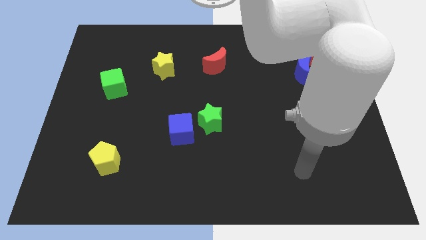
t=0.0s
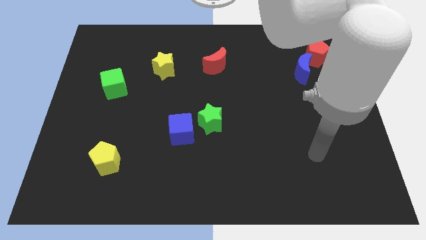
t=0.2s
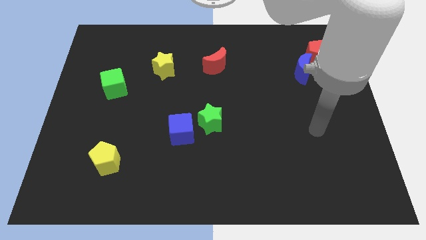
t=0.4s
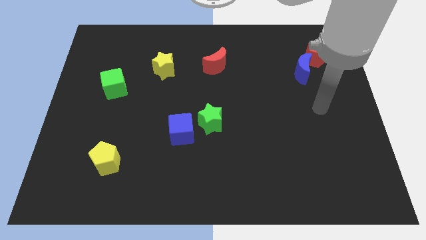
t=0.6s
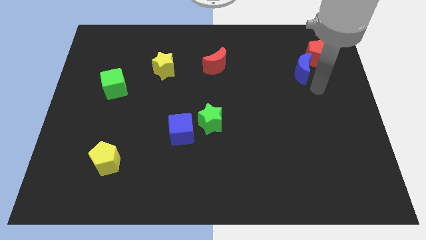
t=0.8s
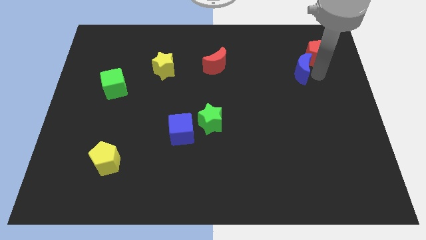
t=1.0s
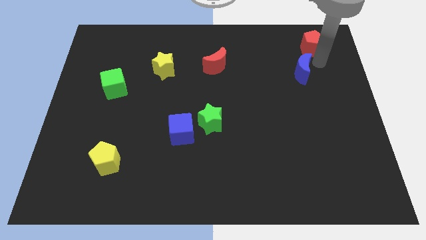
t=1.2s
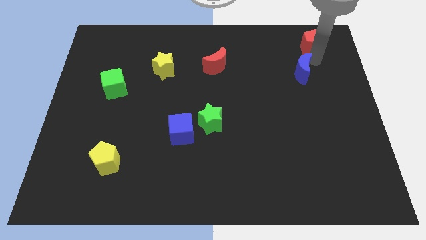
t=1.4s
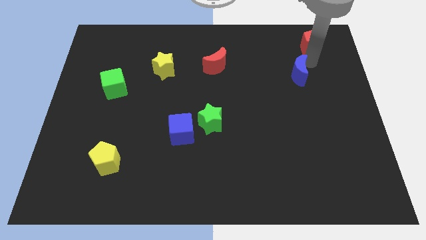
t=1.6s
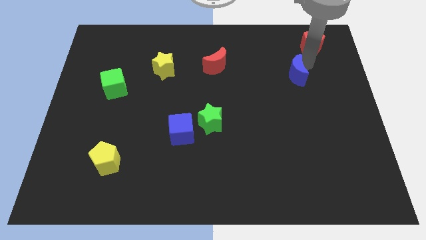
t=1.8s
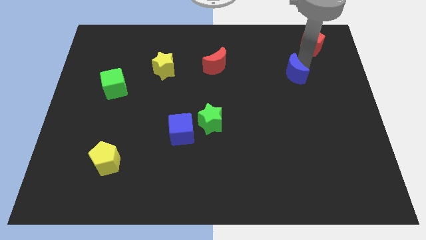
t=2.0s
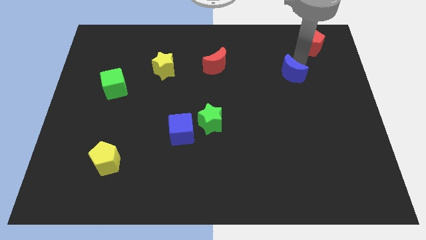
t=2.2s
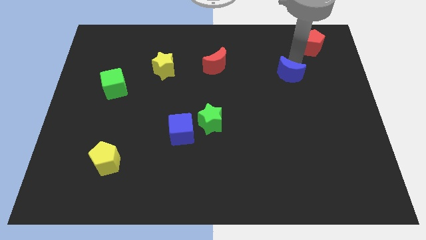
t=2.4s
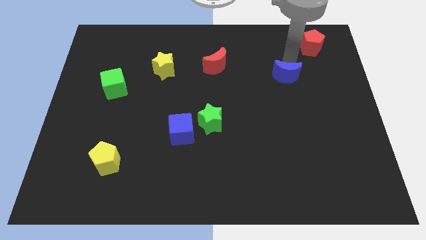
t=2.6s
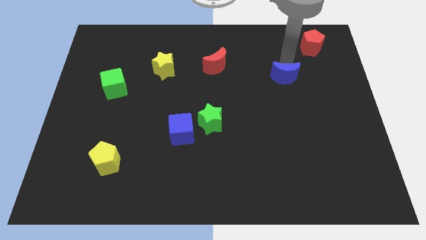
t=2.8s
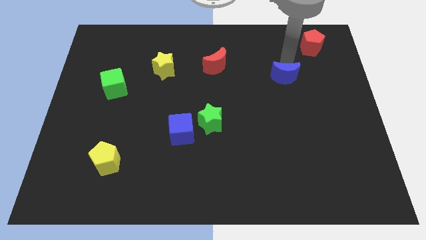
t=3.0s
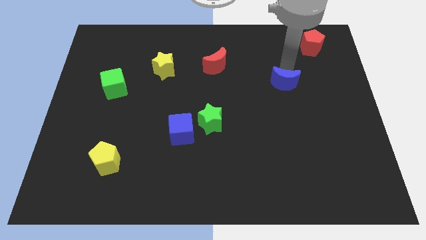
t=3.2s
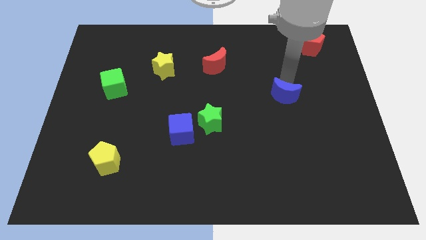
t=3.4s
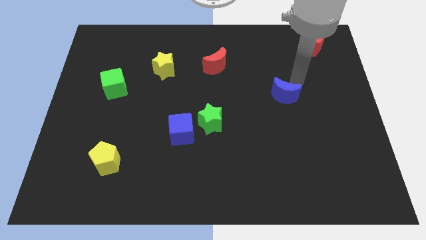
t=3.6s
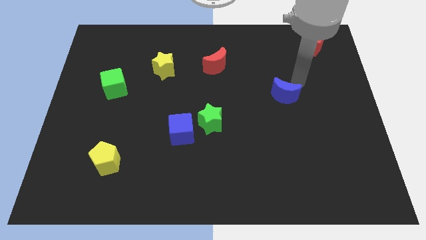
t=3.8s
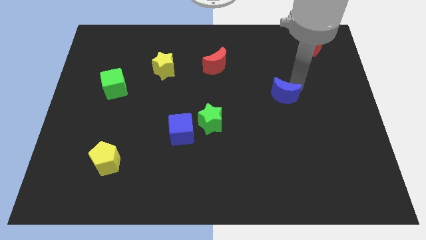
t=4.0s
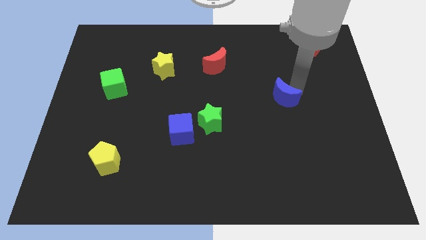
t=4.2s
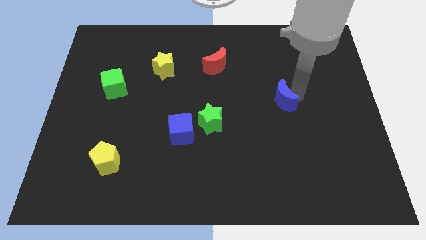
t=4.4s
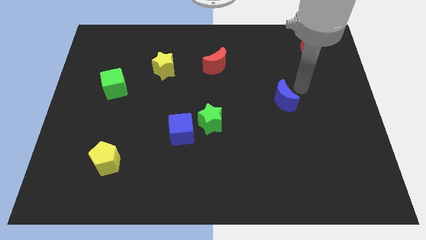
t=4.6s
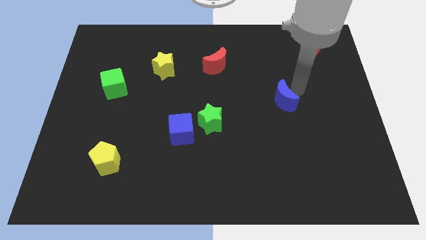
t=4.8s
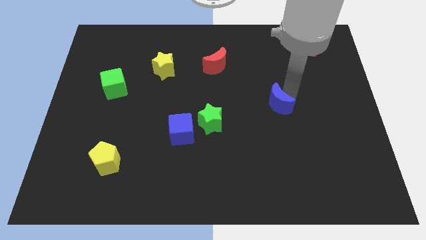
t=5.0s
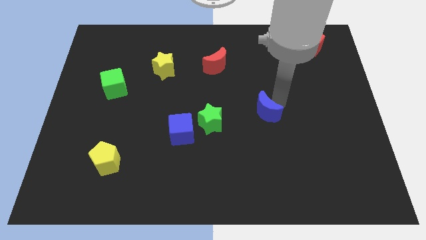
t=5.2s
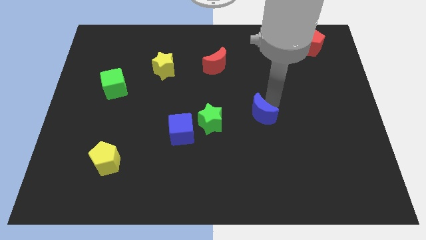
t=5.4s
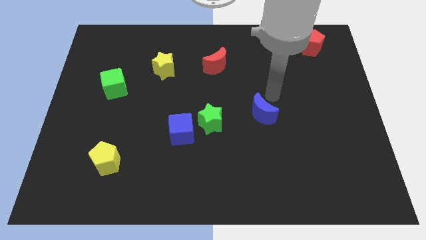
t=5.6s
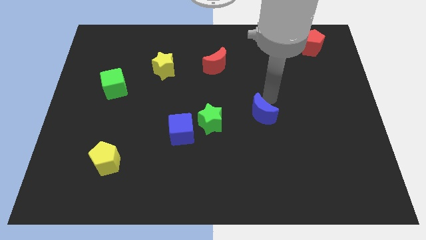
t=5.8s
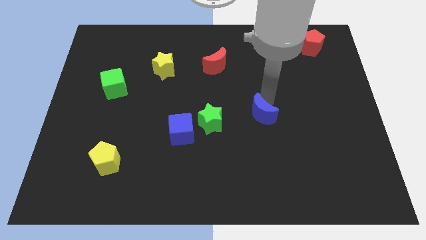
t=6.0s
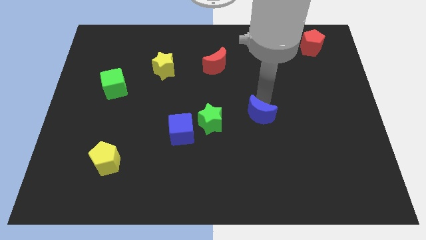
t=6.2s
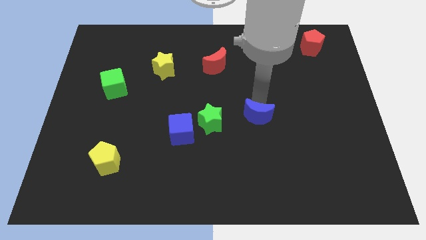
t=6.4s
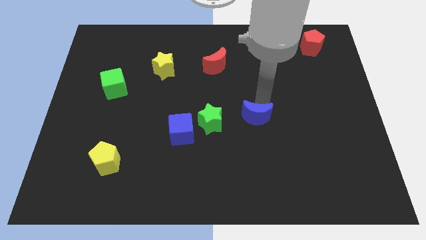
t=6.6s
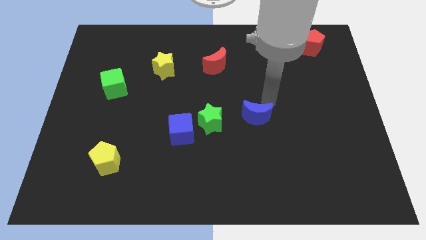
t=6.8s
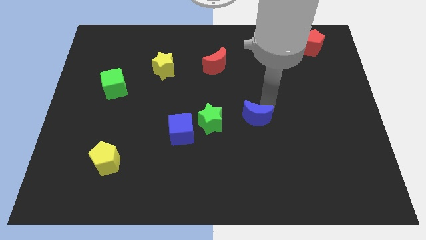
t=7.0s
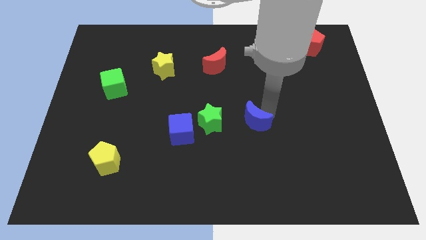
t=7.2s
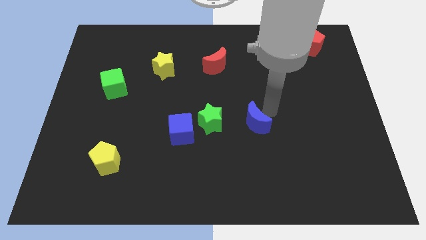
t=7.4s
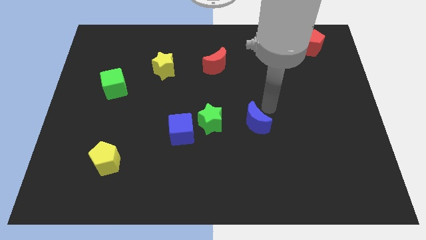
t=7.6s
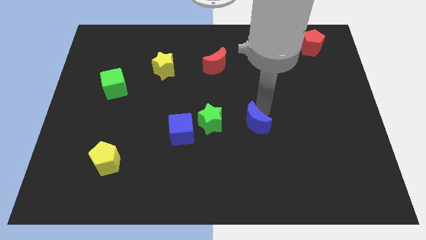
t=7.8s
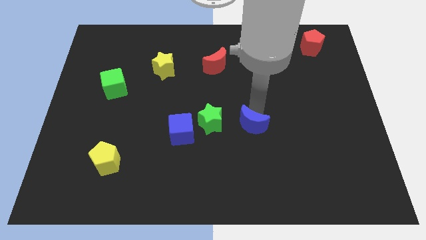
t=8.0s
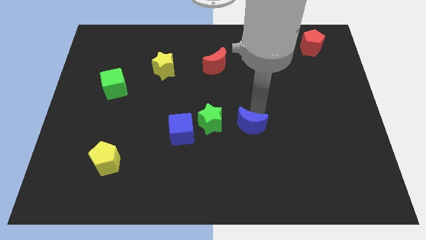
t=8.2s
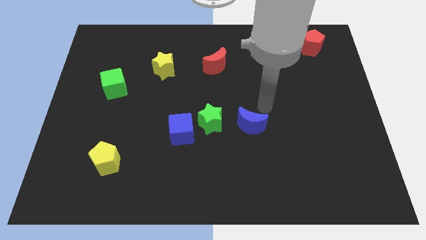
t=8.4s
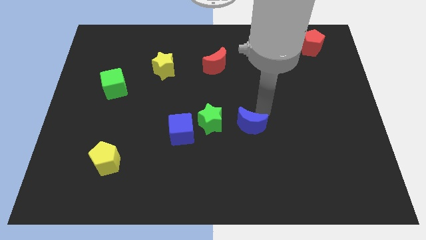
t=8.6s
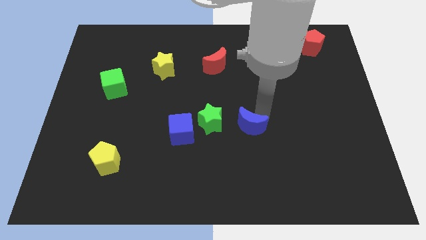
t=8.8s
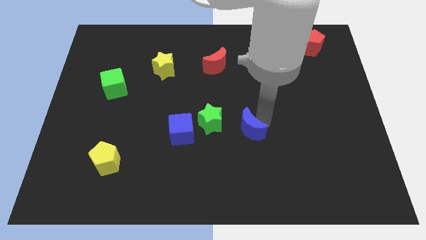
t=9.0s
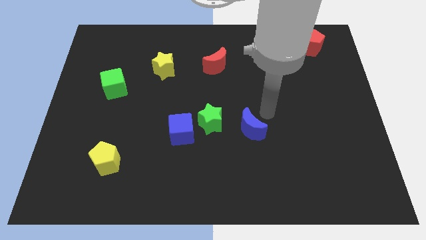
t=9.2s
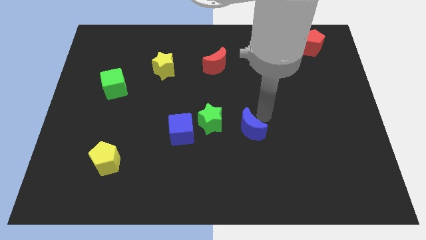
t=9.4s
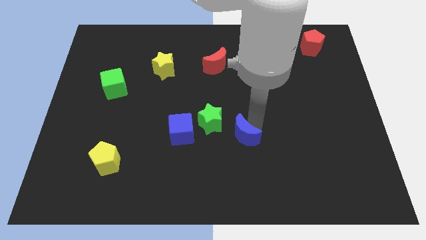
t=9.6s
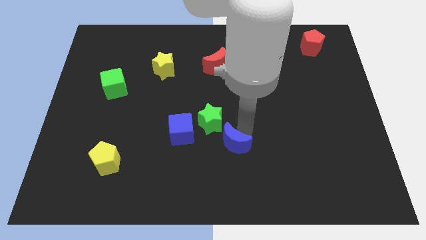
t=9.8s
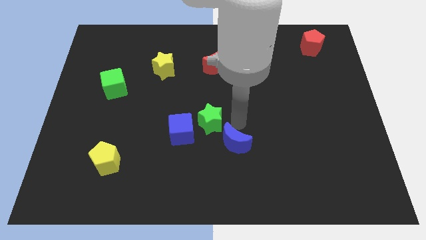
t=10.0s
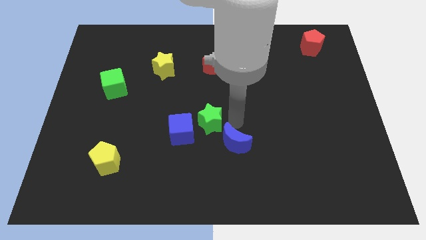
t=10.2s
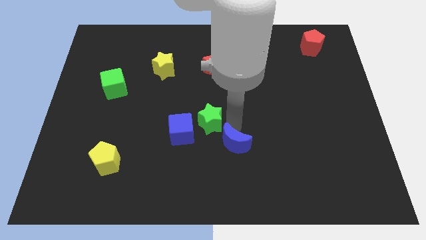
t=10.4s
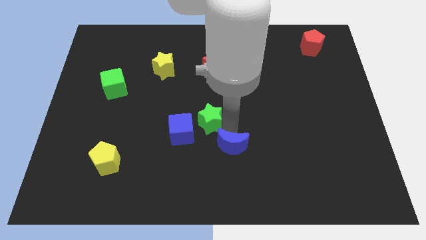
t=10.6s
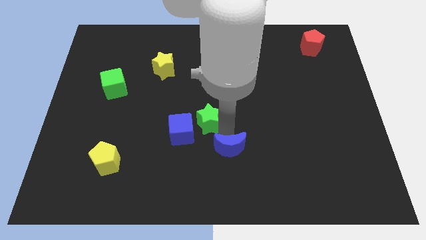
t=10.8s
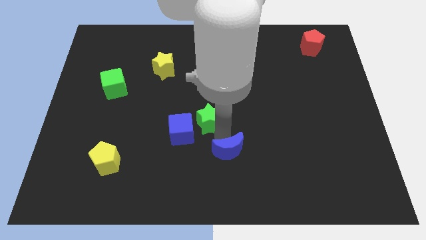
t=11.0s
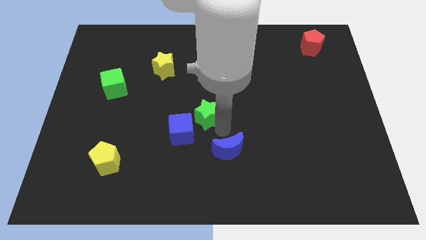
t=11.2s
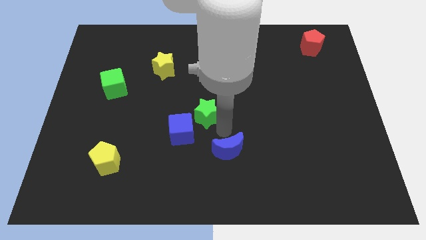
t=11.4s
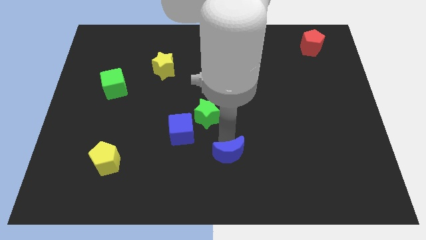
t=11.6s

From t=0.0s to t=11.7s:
slide the blue moon to the bottom
